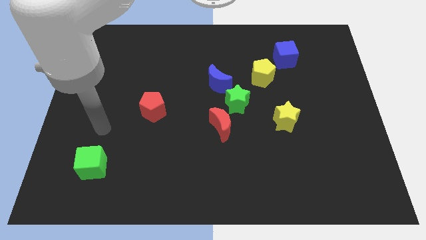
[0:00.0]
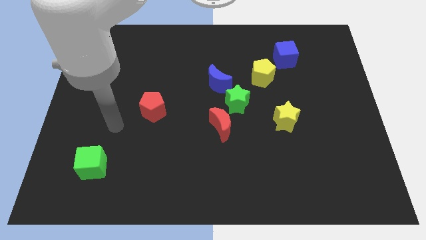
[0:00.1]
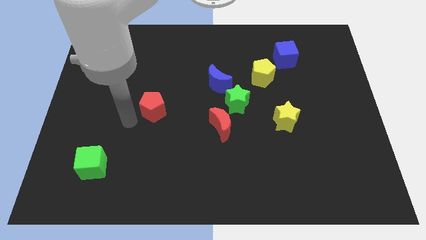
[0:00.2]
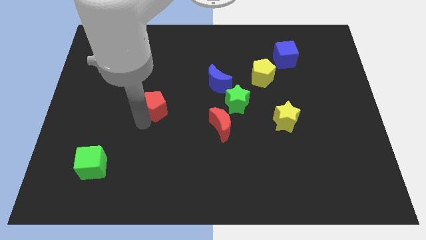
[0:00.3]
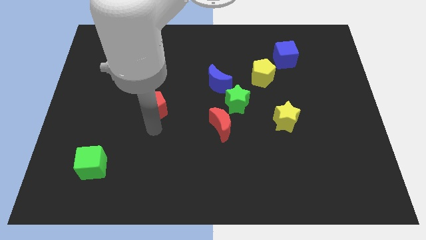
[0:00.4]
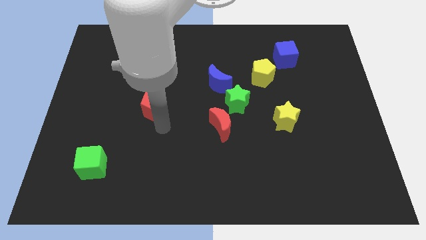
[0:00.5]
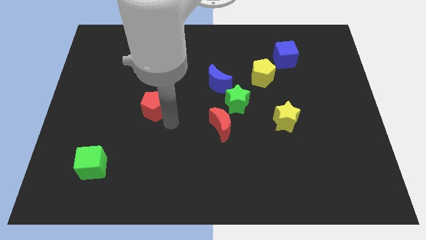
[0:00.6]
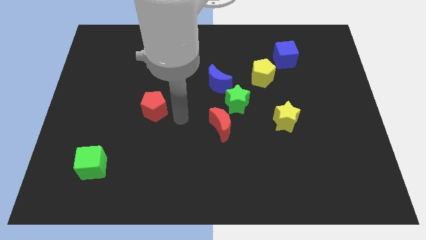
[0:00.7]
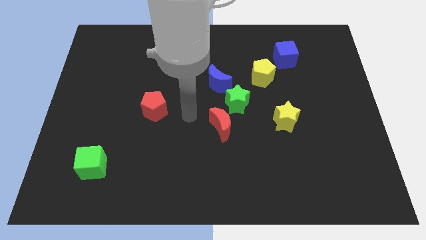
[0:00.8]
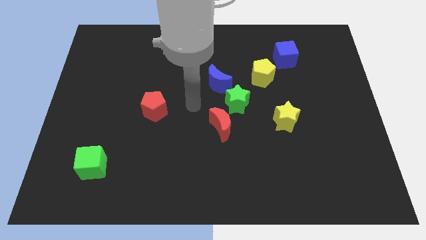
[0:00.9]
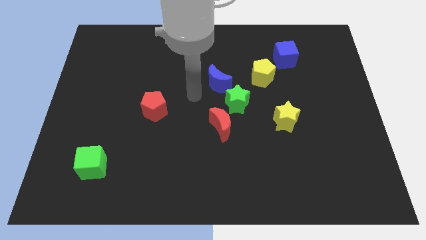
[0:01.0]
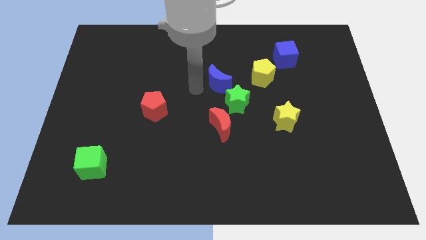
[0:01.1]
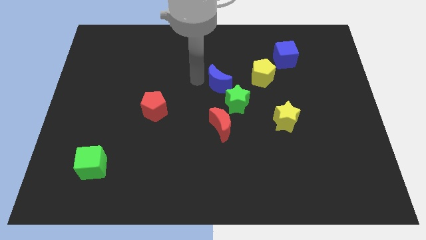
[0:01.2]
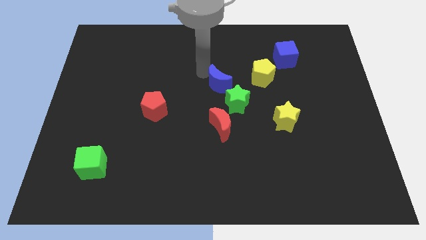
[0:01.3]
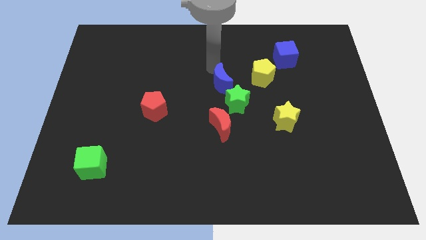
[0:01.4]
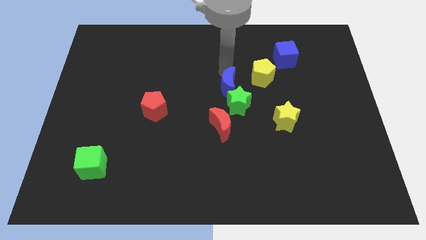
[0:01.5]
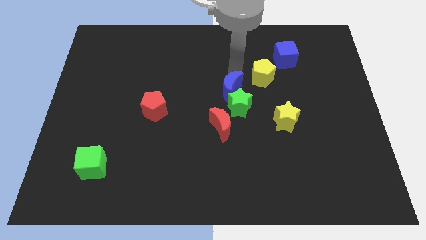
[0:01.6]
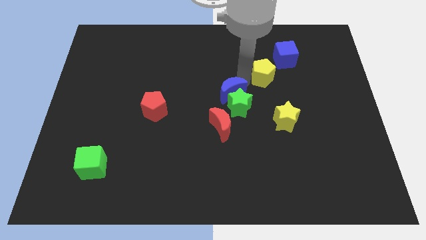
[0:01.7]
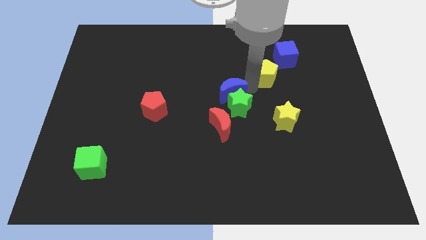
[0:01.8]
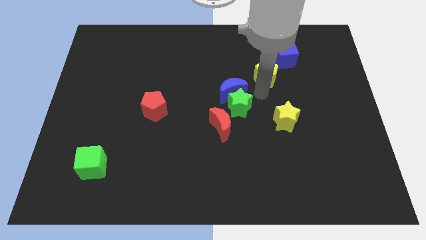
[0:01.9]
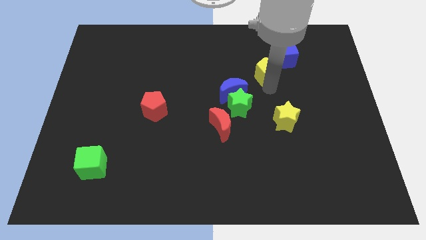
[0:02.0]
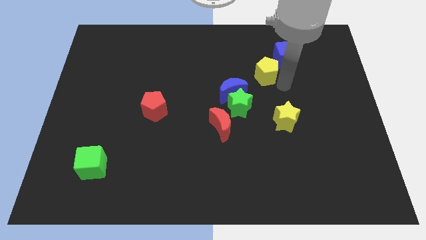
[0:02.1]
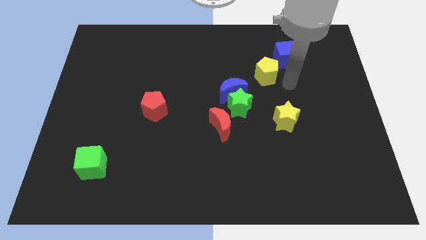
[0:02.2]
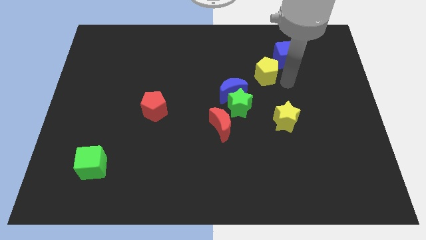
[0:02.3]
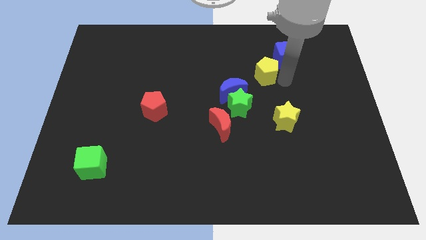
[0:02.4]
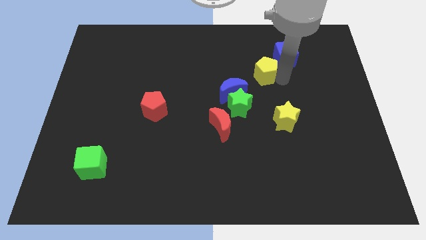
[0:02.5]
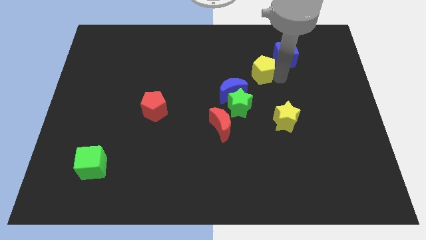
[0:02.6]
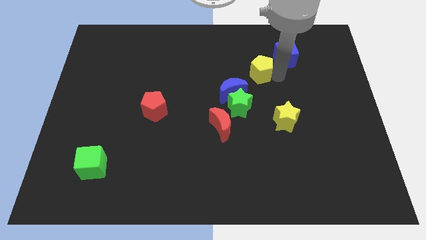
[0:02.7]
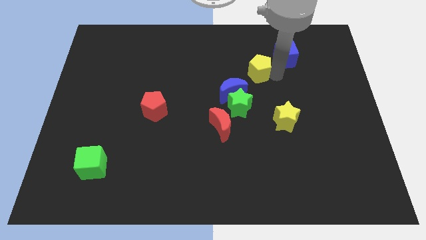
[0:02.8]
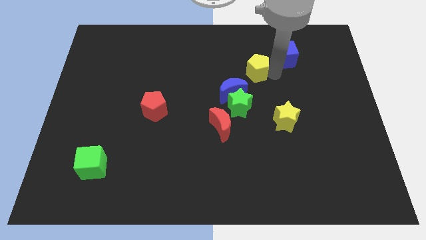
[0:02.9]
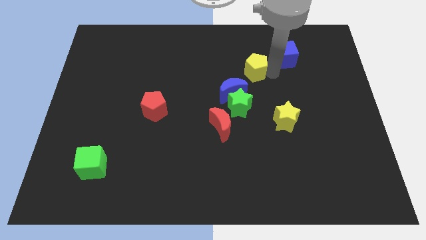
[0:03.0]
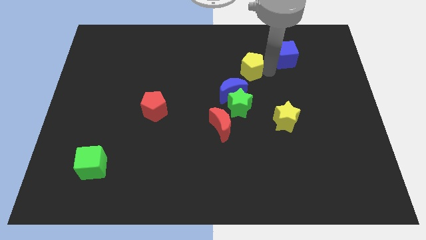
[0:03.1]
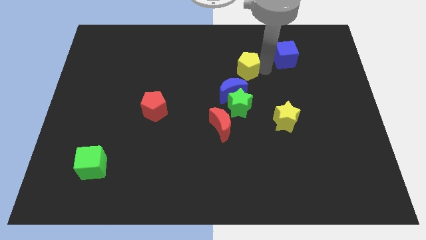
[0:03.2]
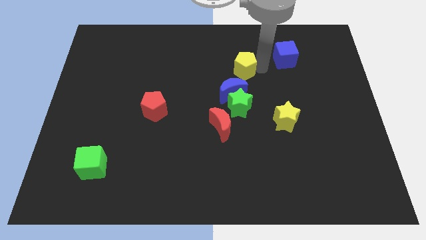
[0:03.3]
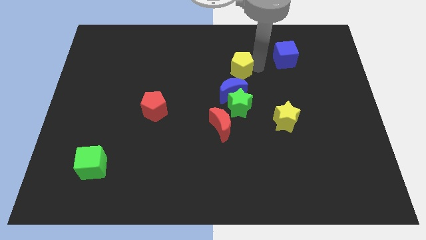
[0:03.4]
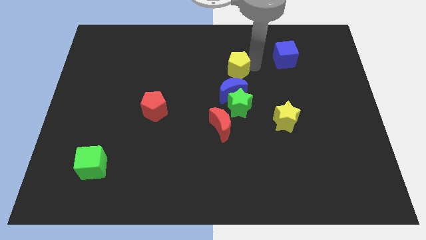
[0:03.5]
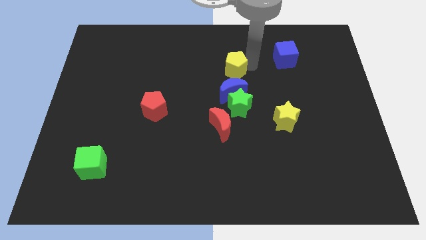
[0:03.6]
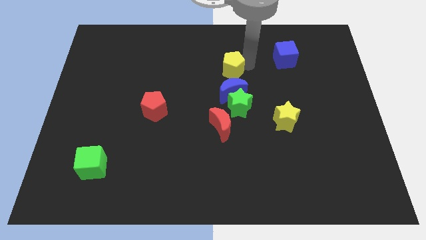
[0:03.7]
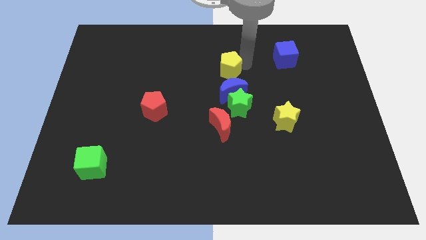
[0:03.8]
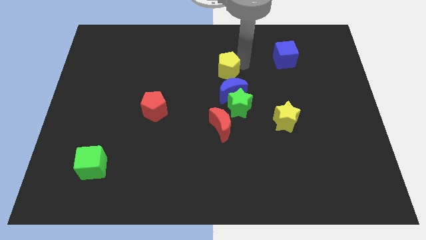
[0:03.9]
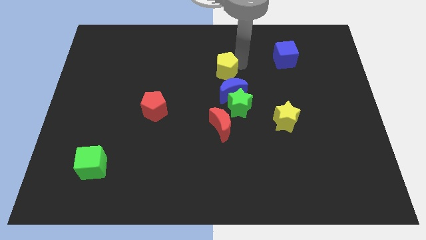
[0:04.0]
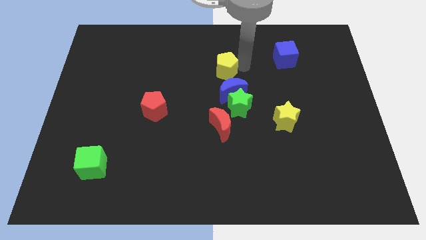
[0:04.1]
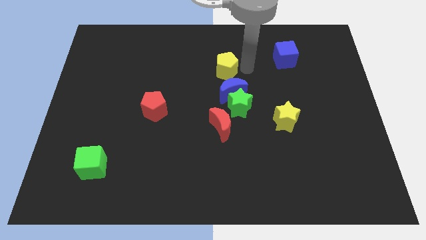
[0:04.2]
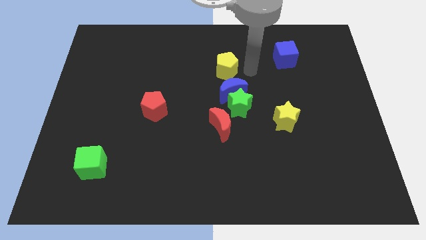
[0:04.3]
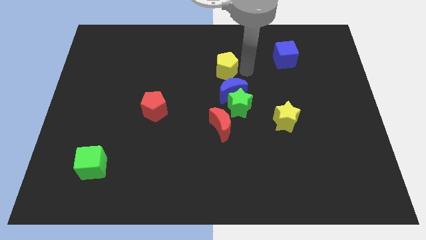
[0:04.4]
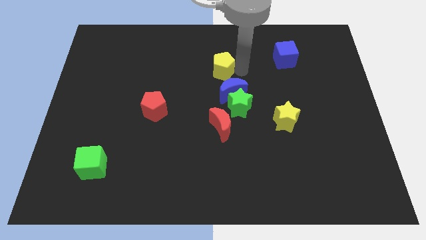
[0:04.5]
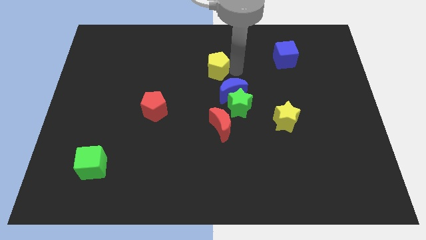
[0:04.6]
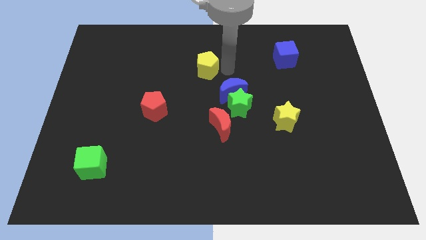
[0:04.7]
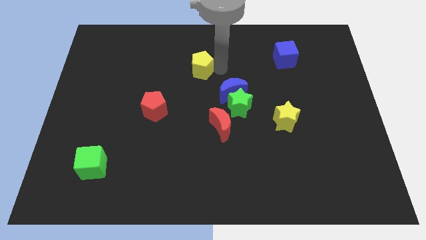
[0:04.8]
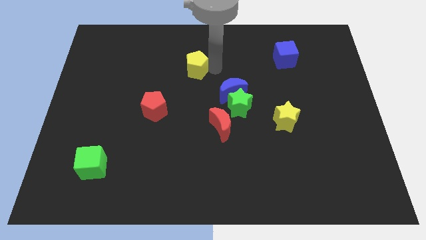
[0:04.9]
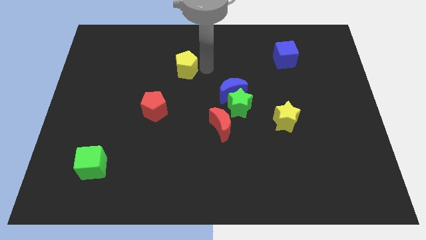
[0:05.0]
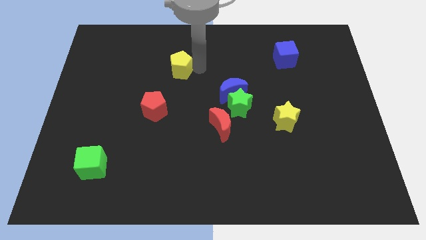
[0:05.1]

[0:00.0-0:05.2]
slide the yellow pentagon left

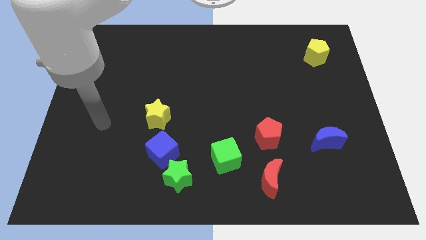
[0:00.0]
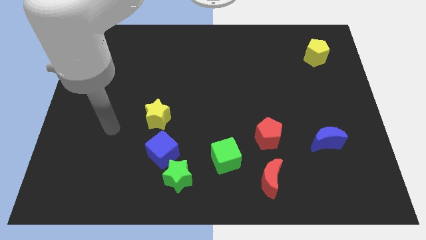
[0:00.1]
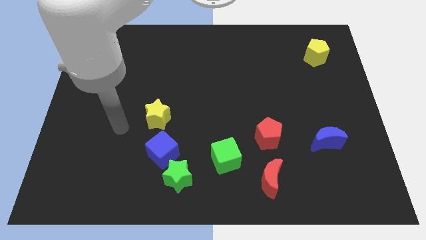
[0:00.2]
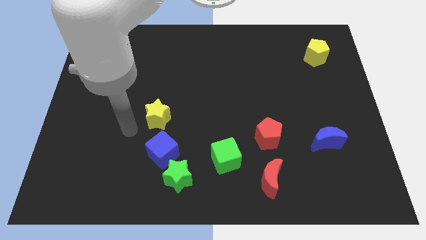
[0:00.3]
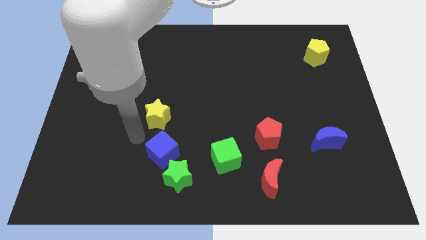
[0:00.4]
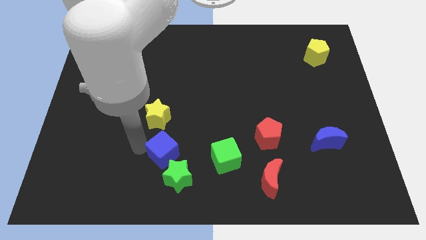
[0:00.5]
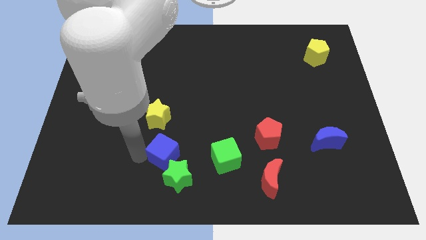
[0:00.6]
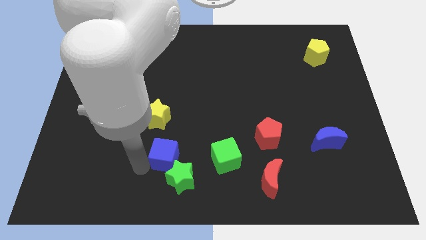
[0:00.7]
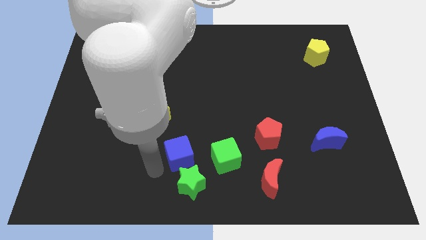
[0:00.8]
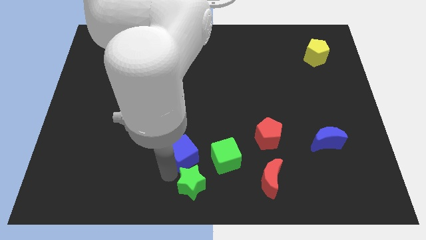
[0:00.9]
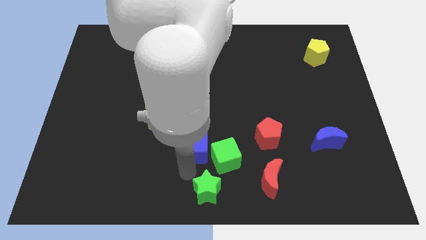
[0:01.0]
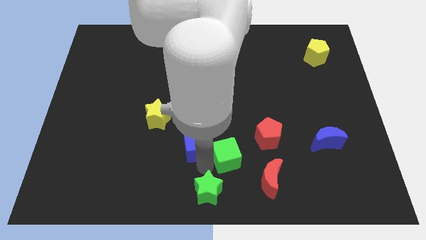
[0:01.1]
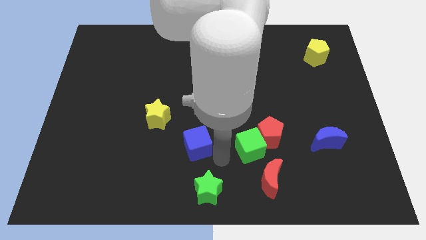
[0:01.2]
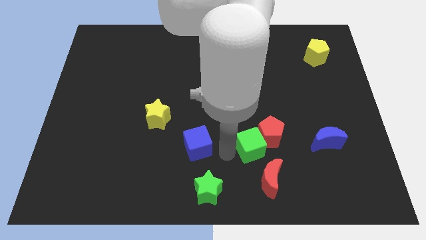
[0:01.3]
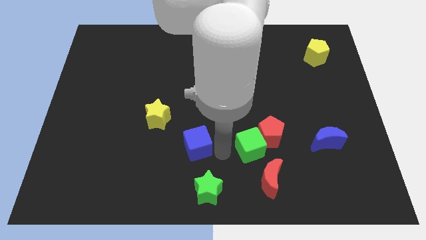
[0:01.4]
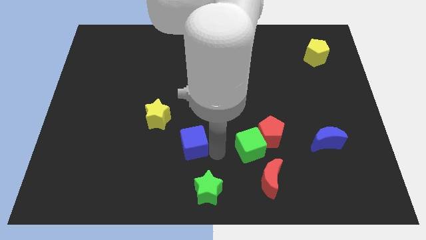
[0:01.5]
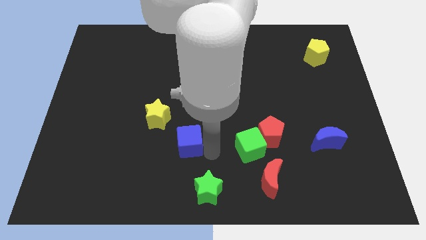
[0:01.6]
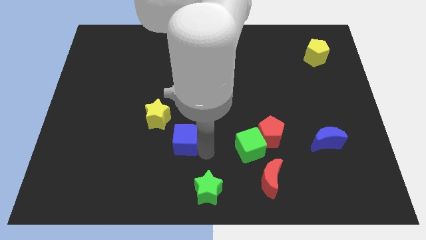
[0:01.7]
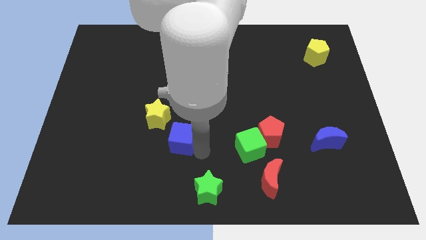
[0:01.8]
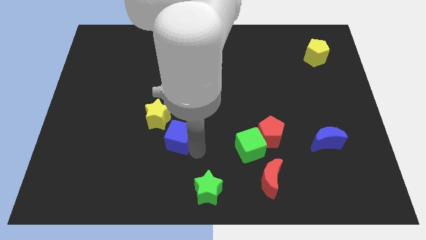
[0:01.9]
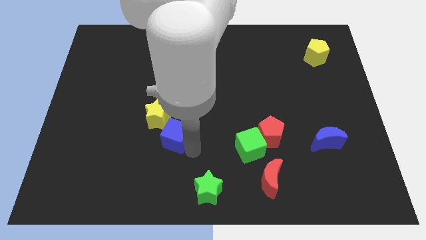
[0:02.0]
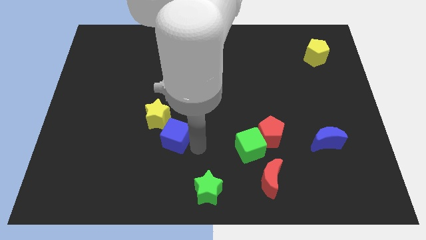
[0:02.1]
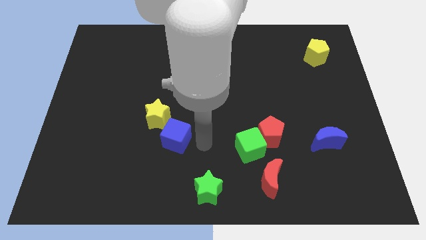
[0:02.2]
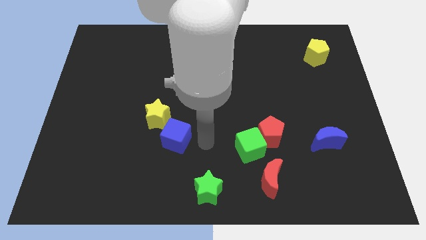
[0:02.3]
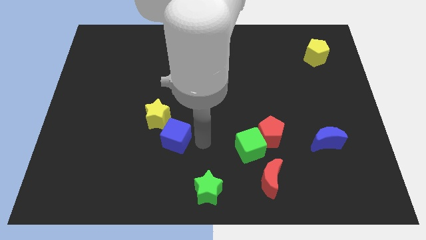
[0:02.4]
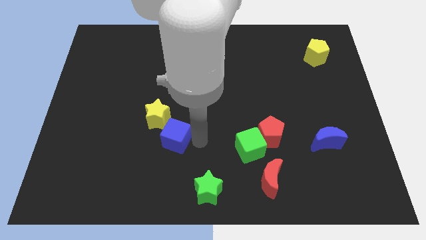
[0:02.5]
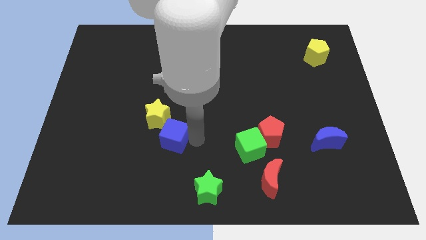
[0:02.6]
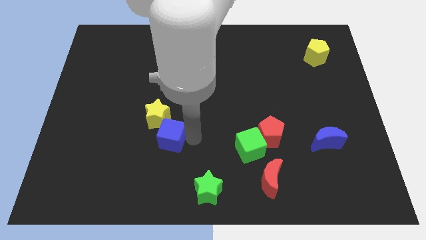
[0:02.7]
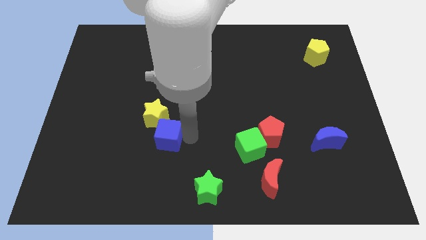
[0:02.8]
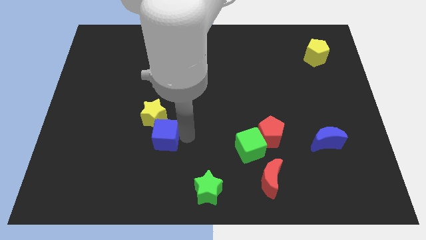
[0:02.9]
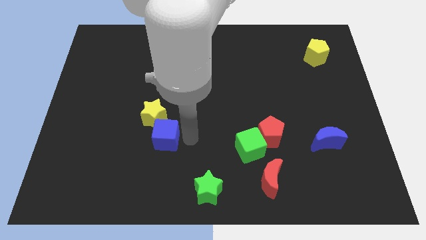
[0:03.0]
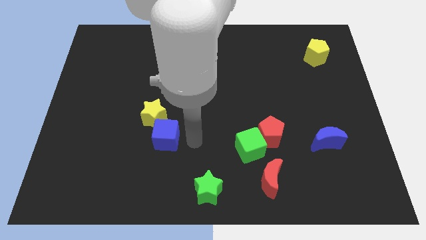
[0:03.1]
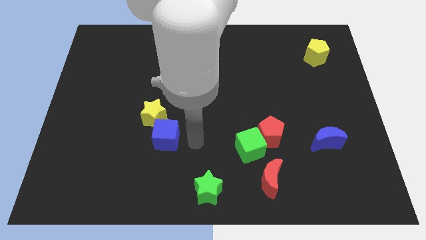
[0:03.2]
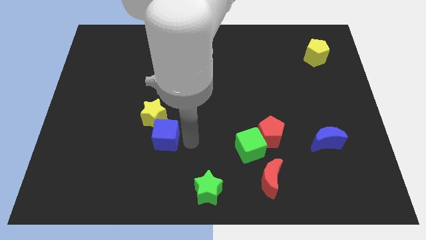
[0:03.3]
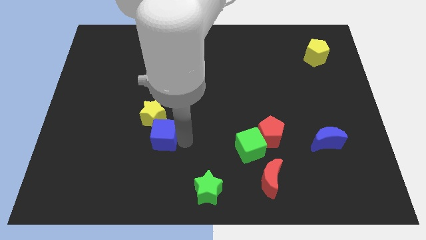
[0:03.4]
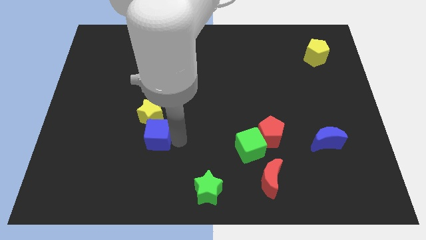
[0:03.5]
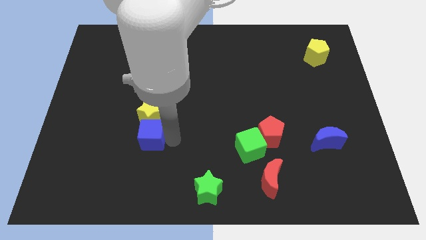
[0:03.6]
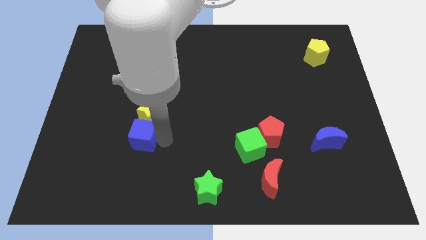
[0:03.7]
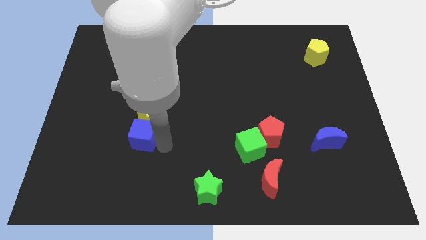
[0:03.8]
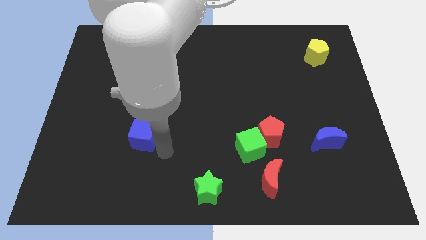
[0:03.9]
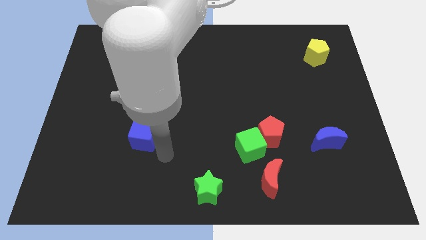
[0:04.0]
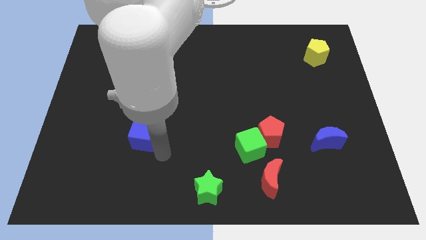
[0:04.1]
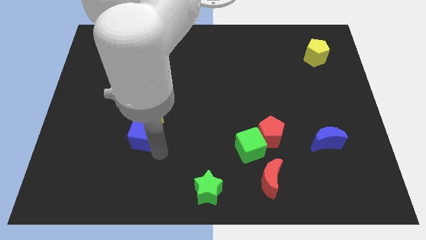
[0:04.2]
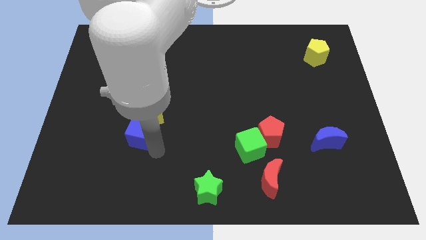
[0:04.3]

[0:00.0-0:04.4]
slightly slide the blue cube up and to the left
